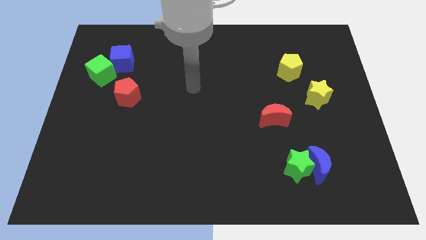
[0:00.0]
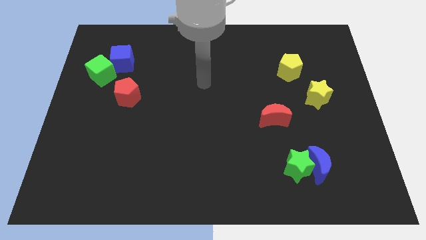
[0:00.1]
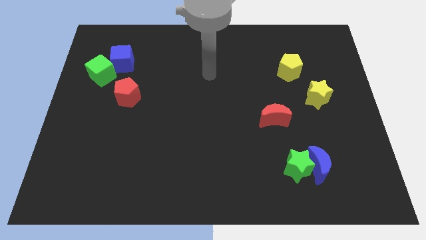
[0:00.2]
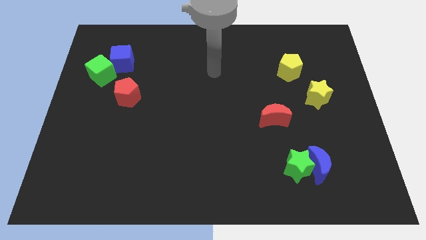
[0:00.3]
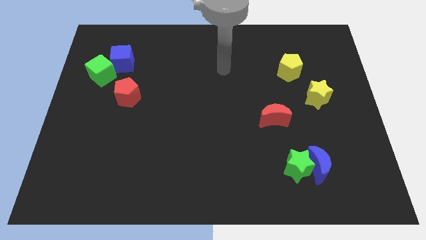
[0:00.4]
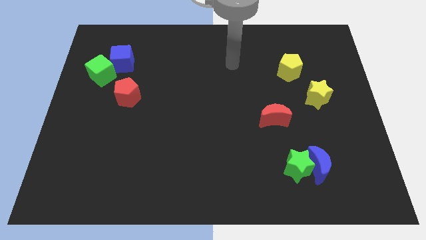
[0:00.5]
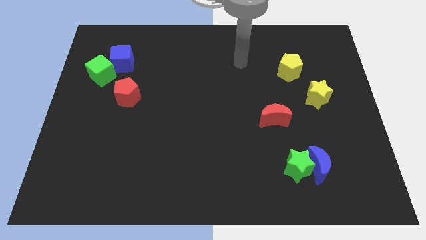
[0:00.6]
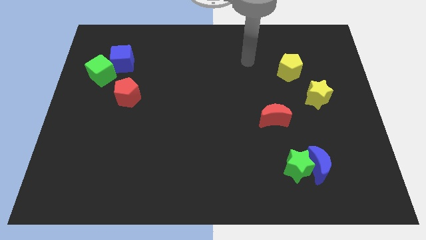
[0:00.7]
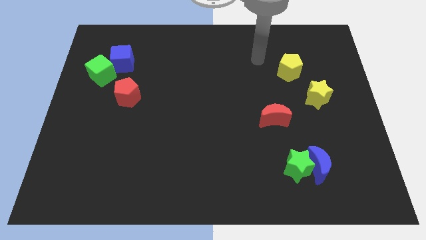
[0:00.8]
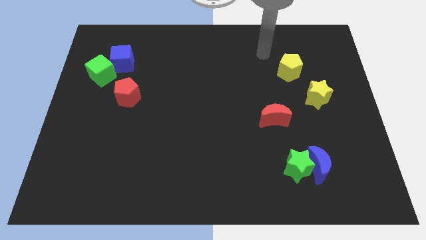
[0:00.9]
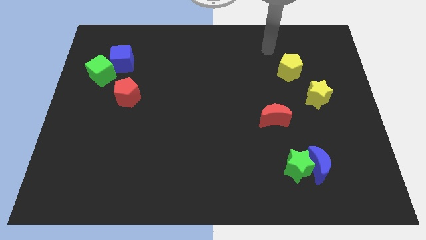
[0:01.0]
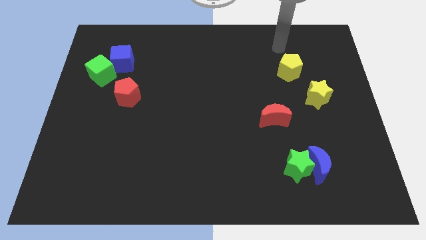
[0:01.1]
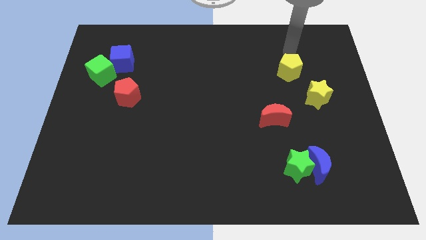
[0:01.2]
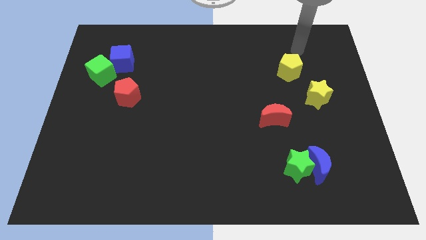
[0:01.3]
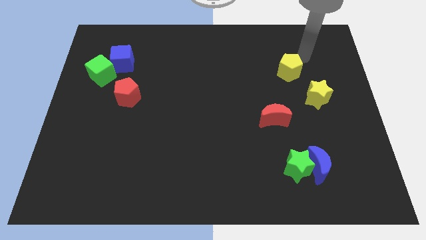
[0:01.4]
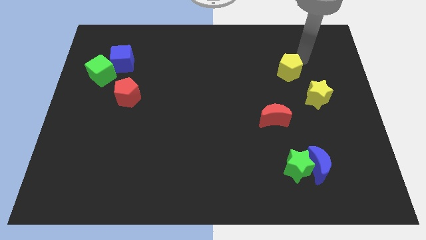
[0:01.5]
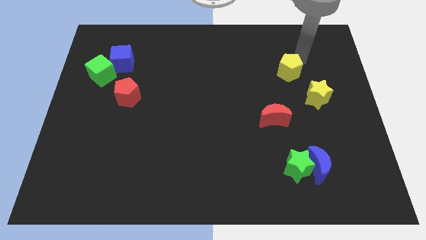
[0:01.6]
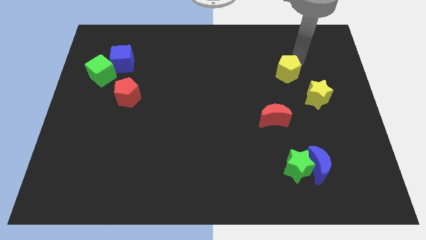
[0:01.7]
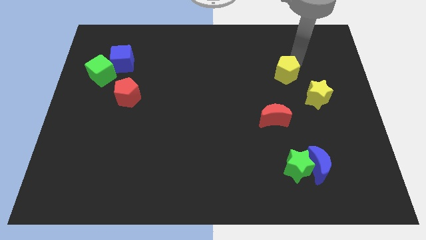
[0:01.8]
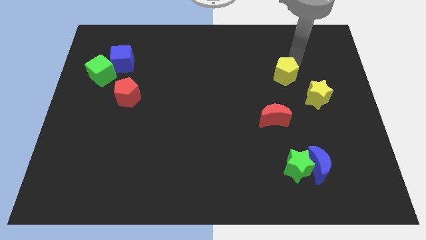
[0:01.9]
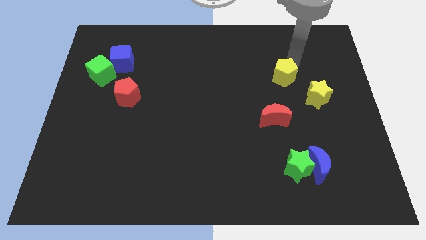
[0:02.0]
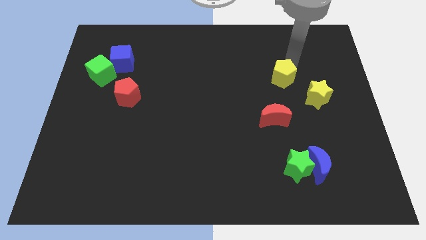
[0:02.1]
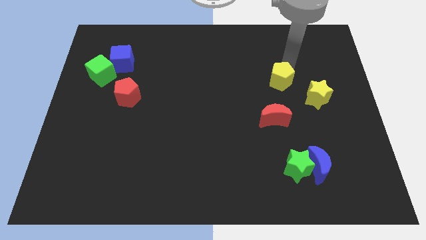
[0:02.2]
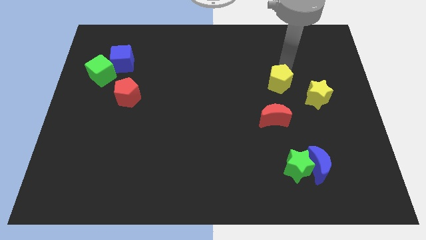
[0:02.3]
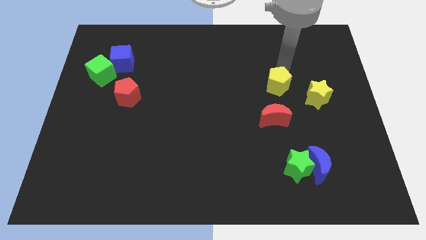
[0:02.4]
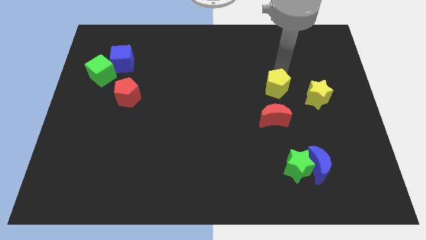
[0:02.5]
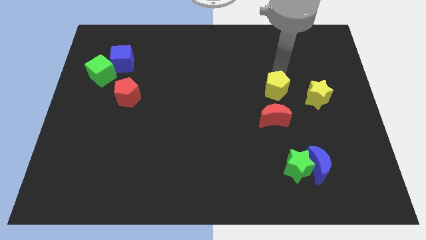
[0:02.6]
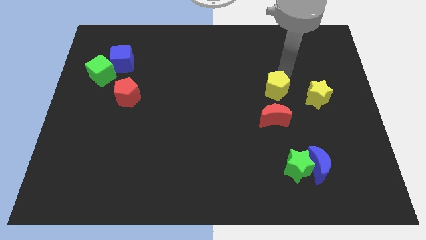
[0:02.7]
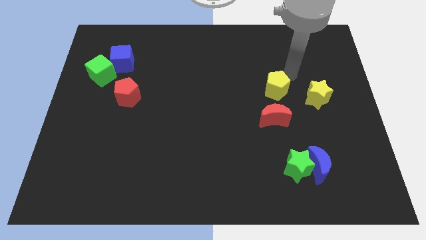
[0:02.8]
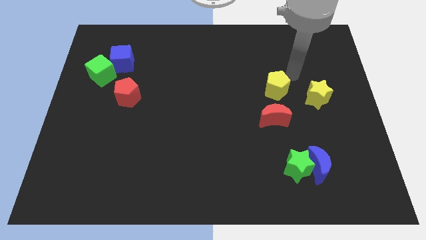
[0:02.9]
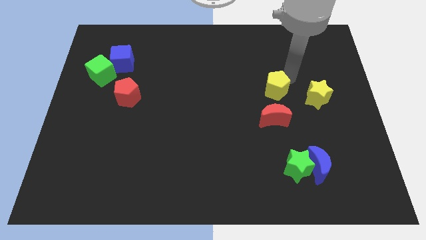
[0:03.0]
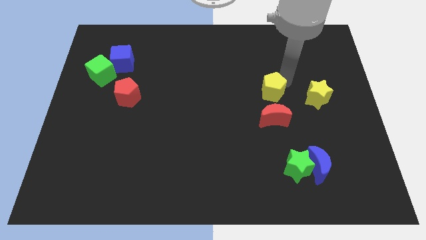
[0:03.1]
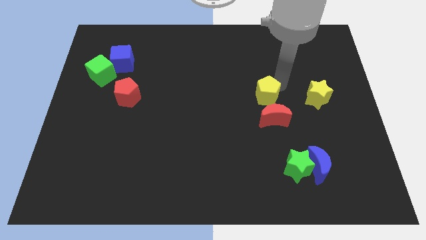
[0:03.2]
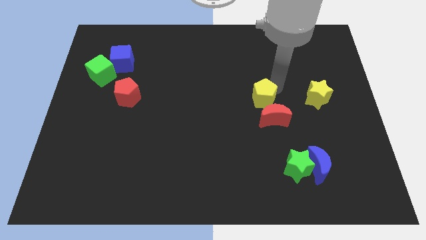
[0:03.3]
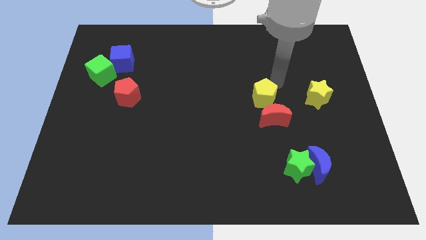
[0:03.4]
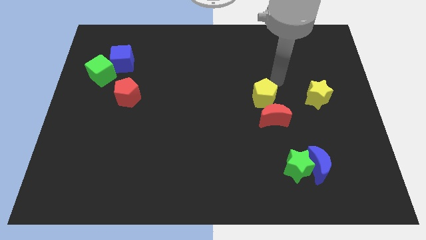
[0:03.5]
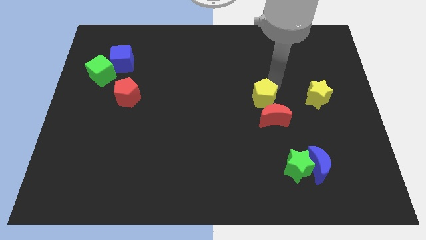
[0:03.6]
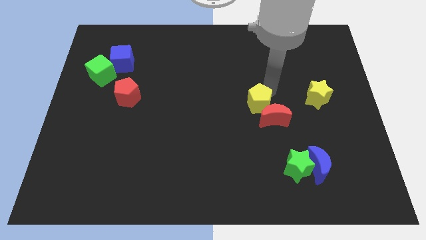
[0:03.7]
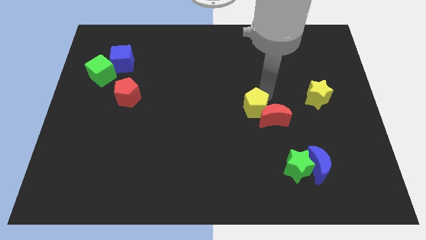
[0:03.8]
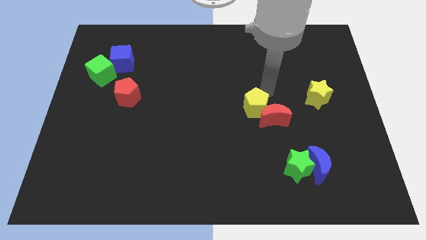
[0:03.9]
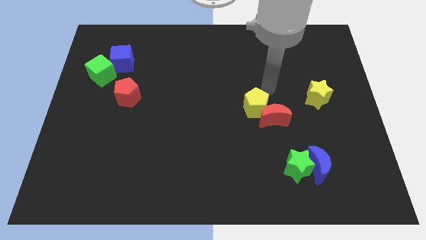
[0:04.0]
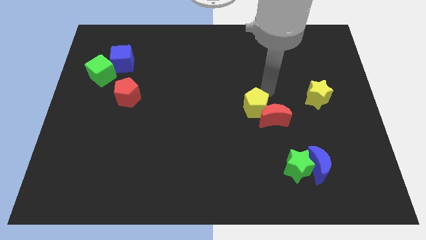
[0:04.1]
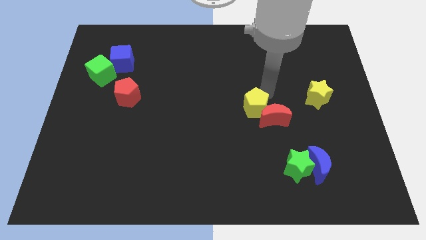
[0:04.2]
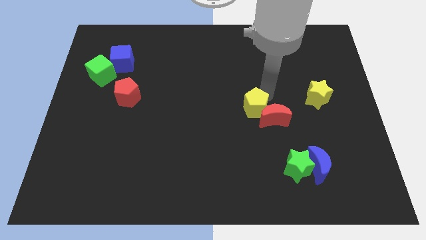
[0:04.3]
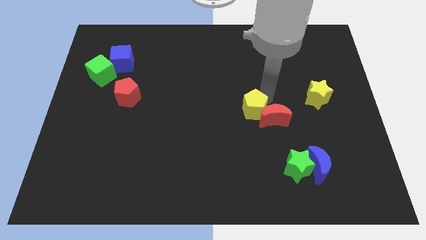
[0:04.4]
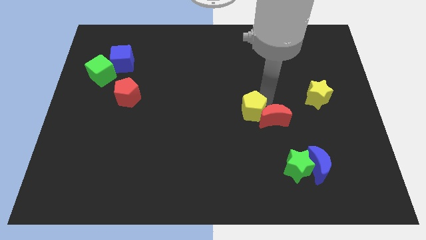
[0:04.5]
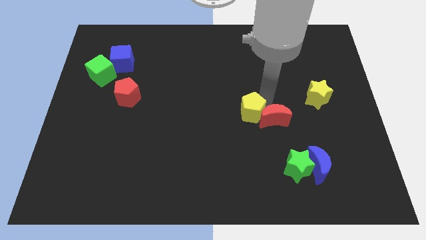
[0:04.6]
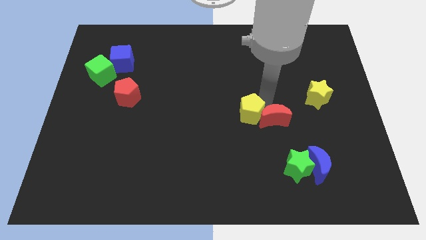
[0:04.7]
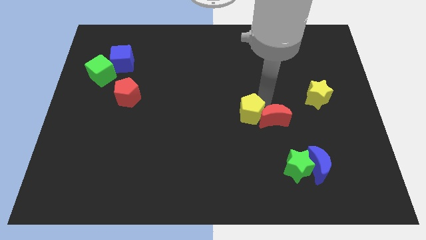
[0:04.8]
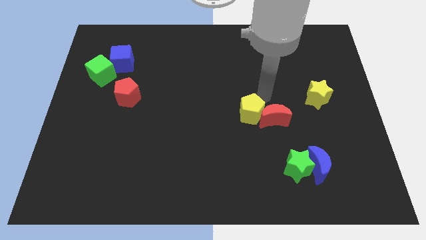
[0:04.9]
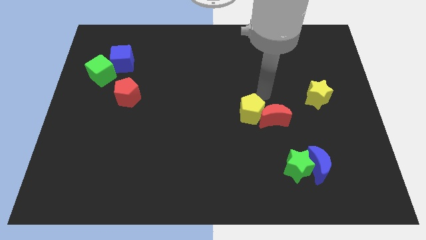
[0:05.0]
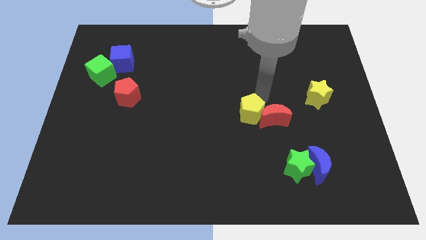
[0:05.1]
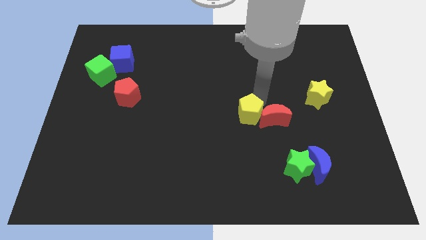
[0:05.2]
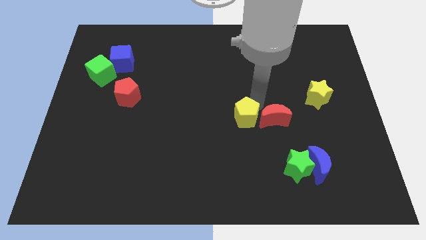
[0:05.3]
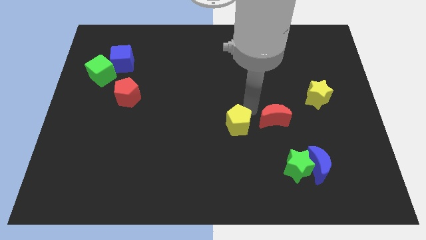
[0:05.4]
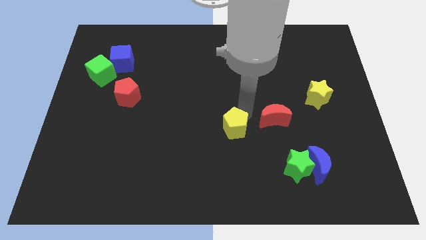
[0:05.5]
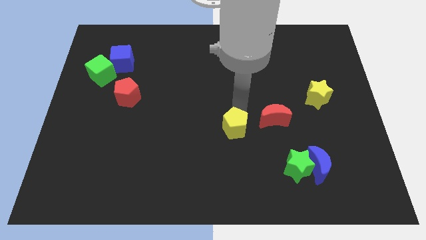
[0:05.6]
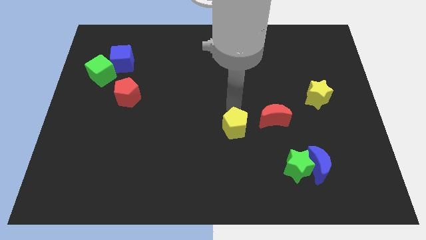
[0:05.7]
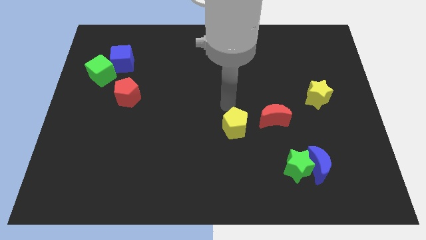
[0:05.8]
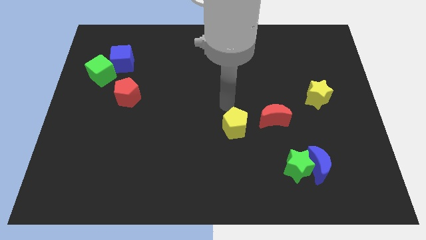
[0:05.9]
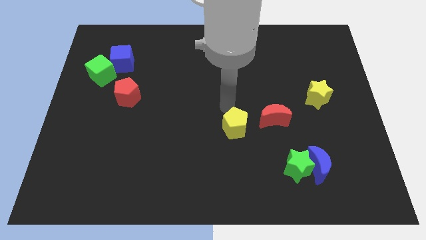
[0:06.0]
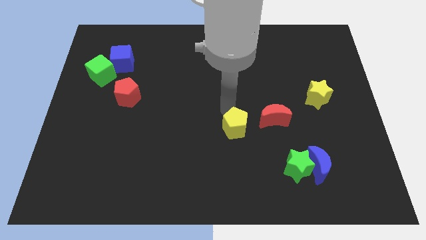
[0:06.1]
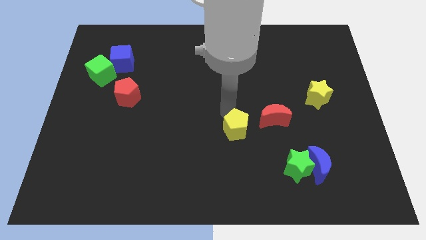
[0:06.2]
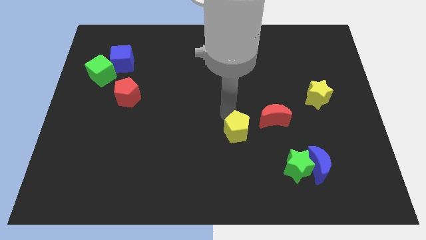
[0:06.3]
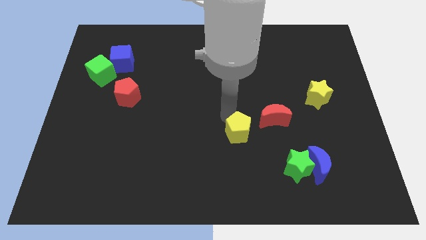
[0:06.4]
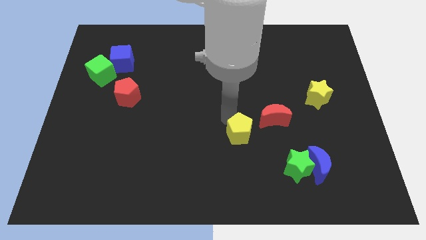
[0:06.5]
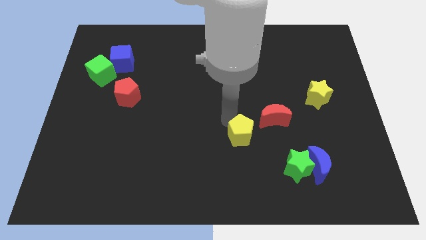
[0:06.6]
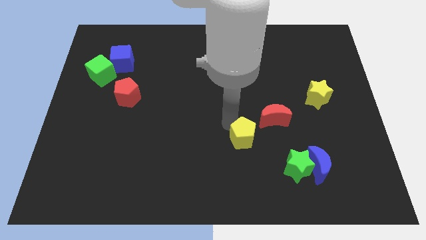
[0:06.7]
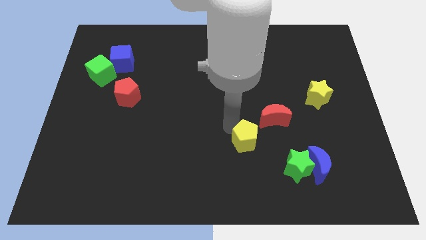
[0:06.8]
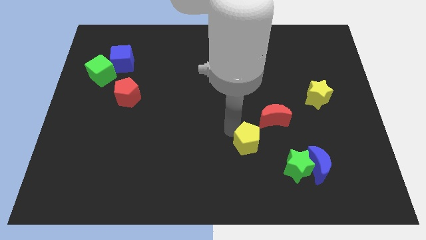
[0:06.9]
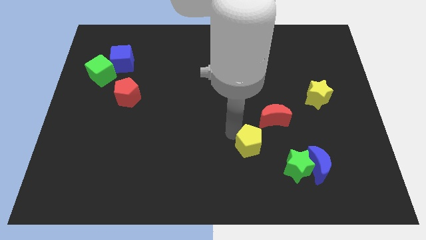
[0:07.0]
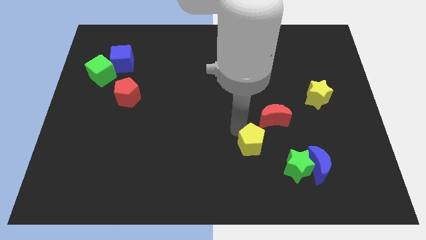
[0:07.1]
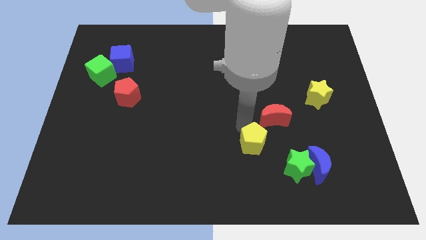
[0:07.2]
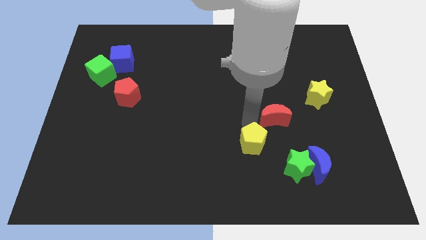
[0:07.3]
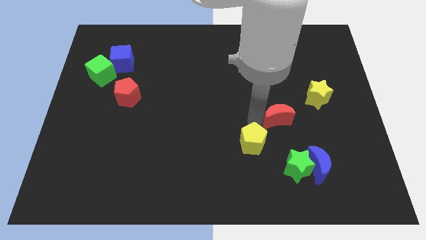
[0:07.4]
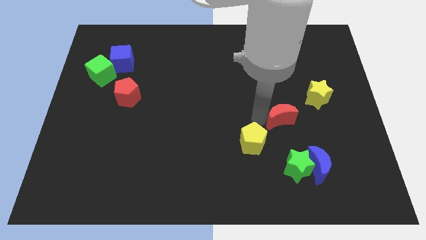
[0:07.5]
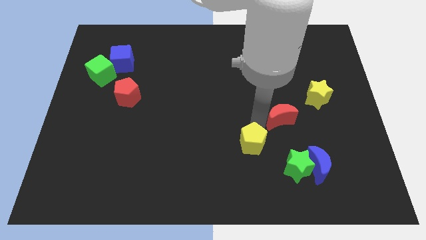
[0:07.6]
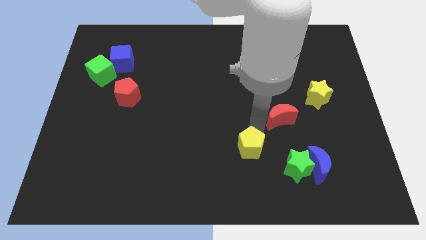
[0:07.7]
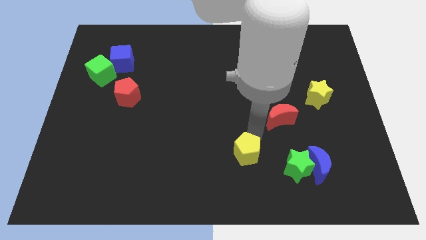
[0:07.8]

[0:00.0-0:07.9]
move the yellow pentagon just left of the green star

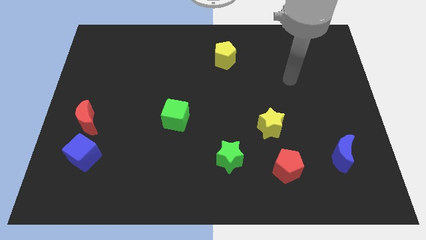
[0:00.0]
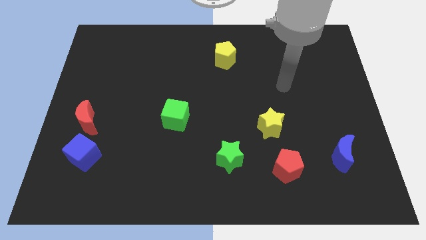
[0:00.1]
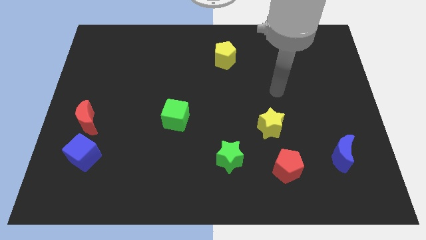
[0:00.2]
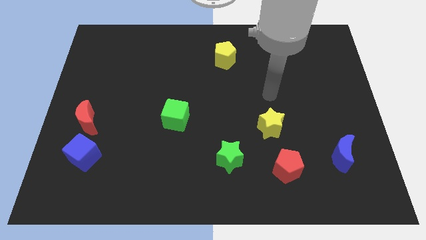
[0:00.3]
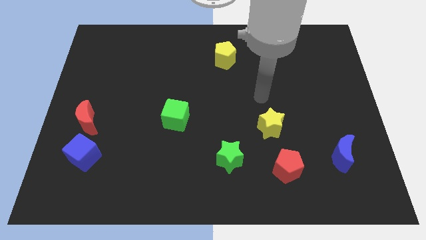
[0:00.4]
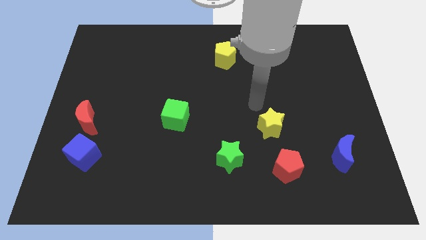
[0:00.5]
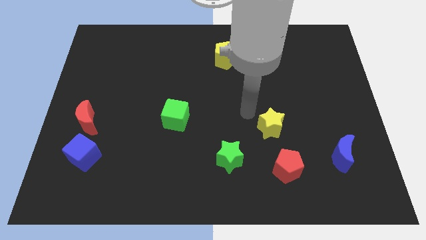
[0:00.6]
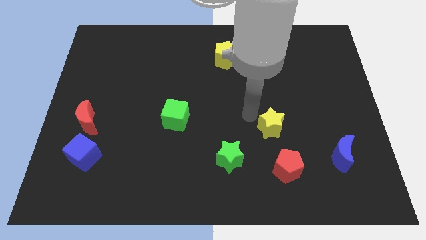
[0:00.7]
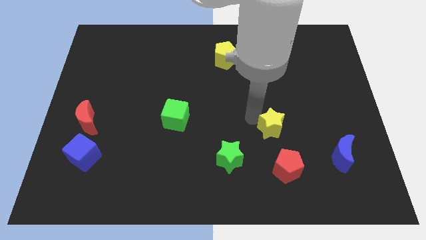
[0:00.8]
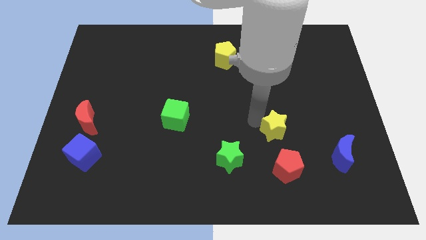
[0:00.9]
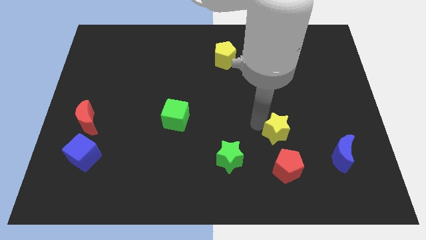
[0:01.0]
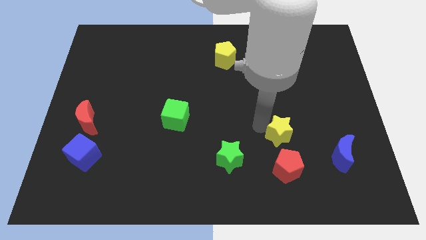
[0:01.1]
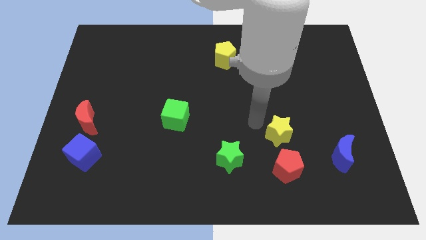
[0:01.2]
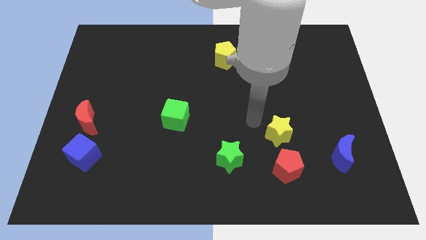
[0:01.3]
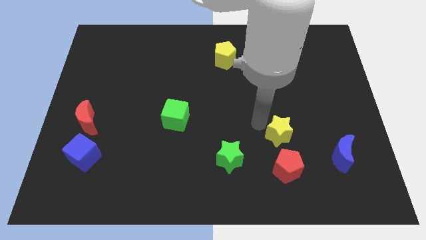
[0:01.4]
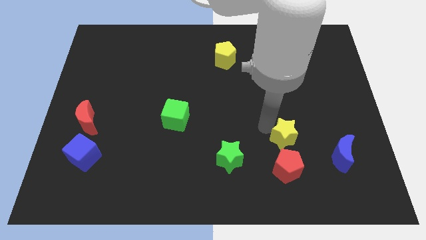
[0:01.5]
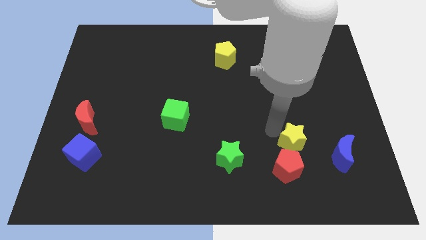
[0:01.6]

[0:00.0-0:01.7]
move the yellow star diagonally up and to the right of the red pentagon
